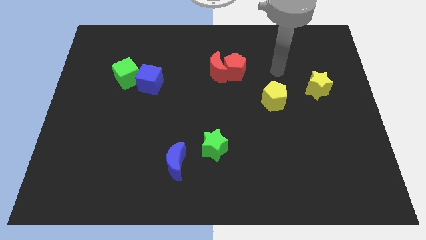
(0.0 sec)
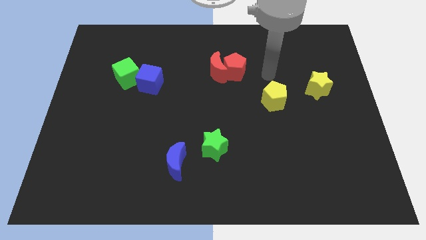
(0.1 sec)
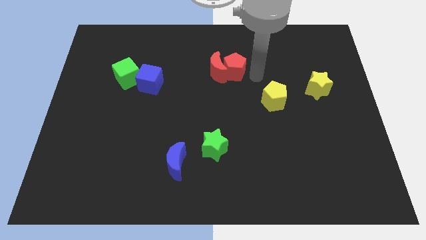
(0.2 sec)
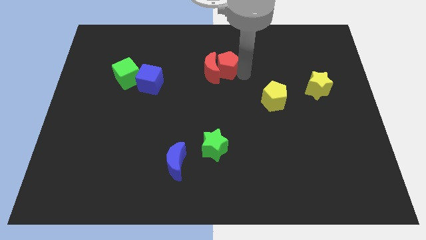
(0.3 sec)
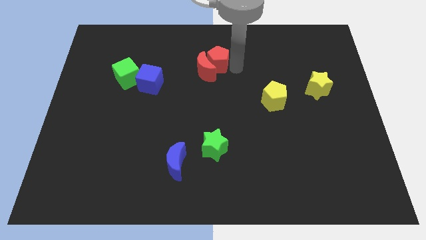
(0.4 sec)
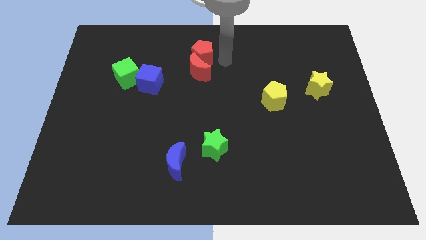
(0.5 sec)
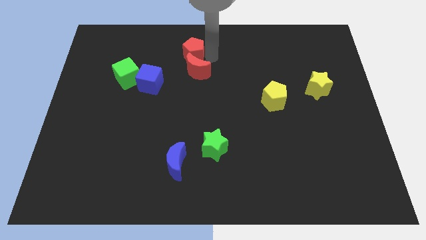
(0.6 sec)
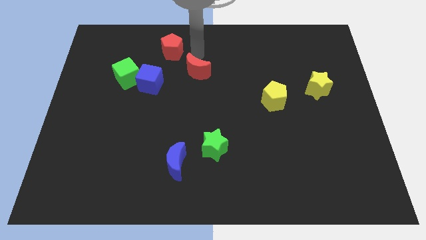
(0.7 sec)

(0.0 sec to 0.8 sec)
separate the red moon from the red pentagon

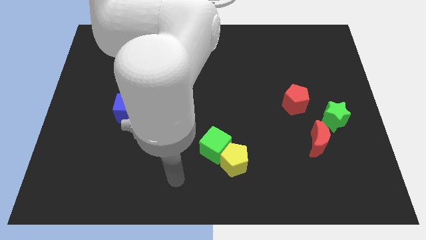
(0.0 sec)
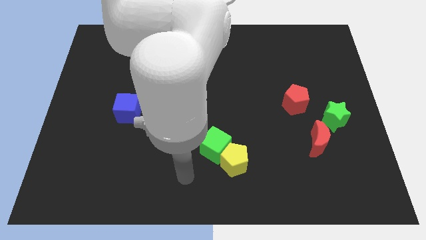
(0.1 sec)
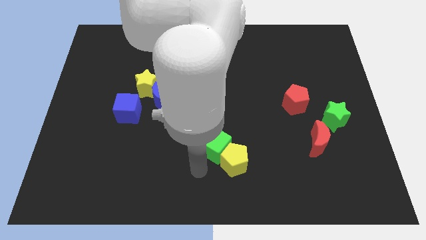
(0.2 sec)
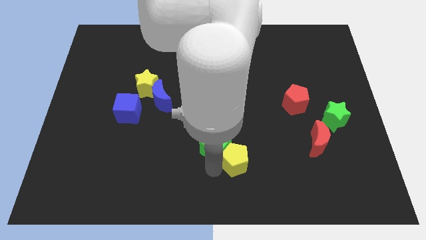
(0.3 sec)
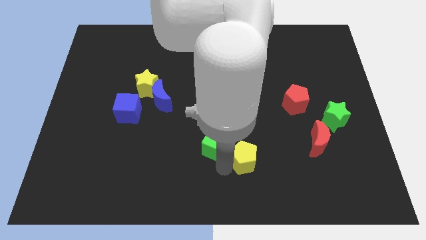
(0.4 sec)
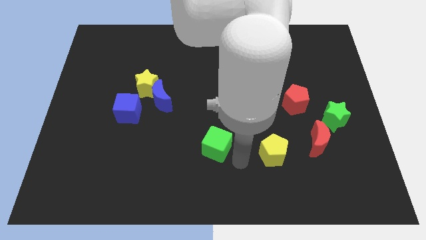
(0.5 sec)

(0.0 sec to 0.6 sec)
separate the green cube from the yellow pentagon

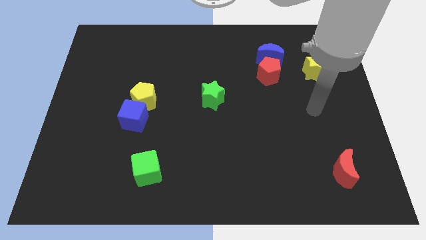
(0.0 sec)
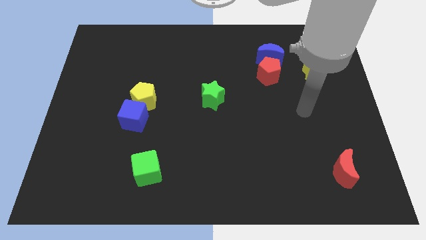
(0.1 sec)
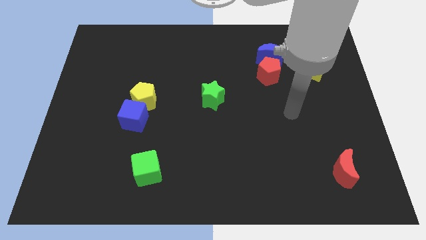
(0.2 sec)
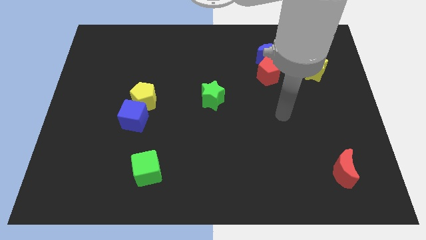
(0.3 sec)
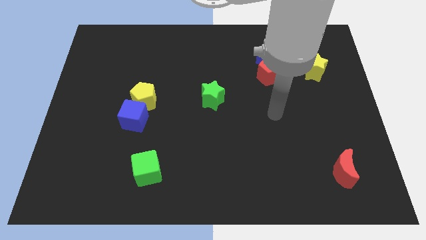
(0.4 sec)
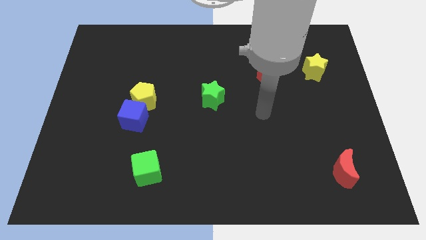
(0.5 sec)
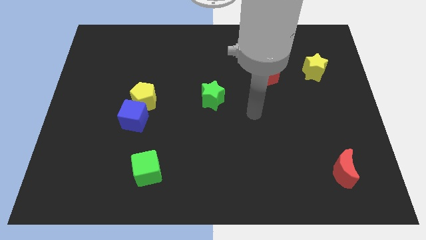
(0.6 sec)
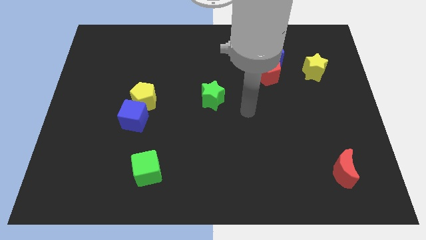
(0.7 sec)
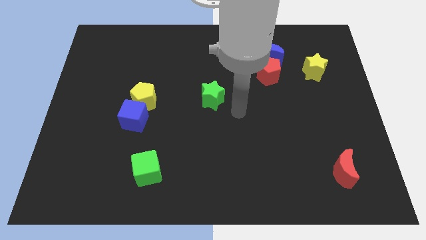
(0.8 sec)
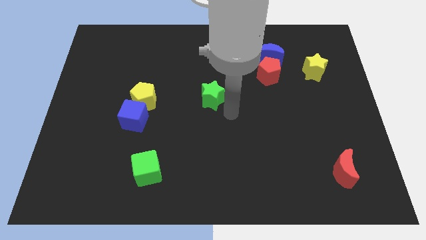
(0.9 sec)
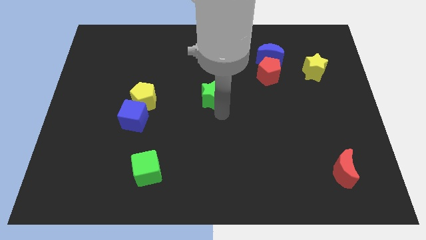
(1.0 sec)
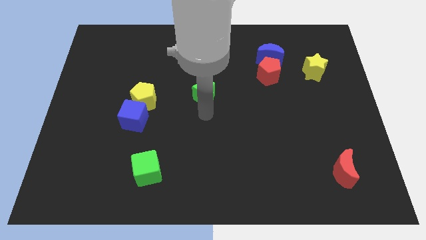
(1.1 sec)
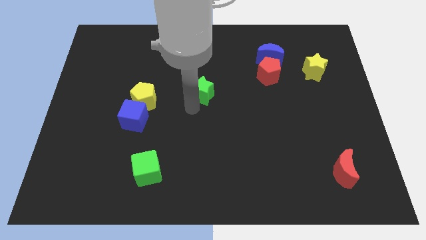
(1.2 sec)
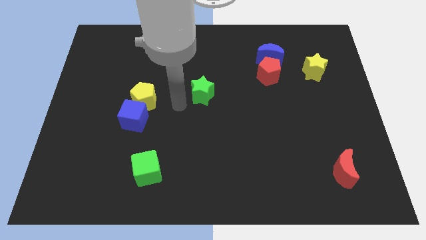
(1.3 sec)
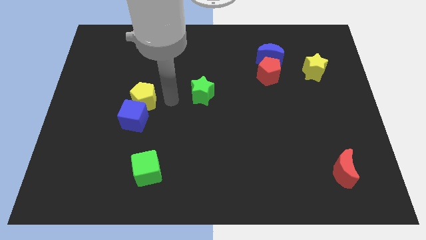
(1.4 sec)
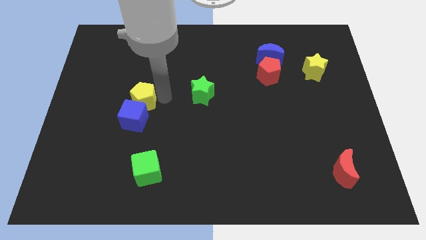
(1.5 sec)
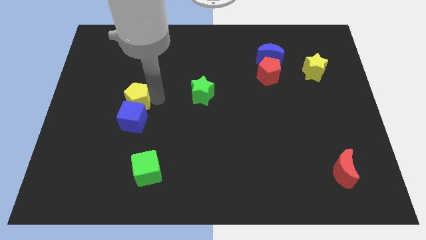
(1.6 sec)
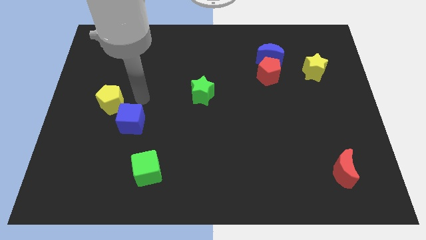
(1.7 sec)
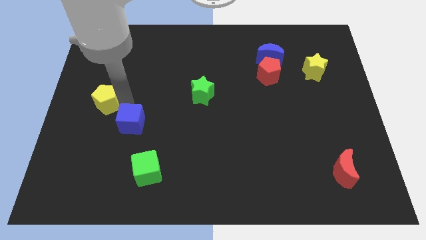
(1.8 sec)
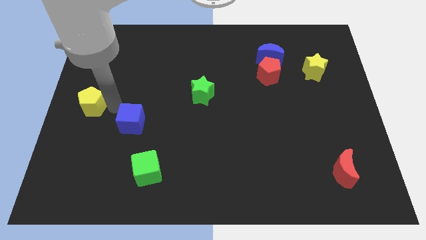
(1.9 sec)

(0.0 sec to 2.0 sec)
move the blue cube away from the yellow pentagon

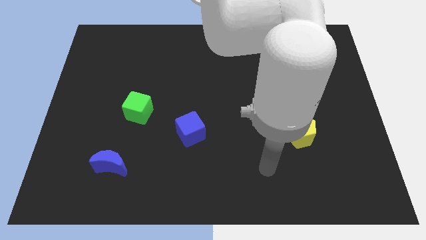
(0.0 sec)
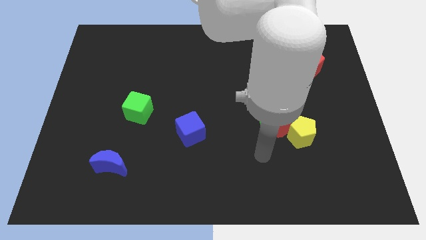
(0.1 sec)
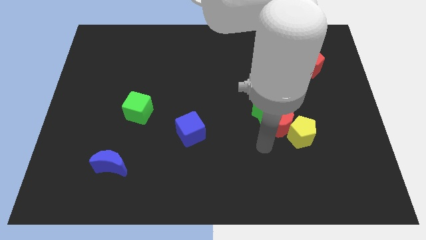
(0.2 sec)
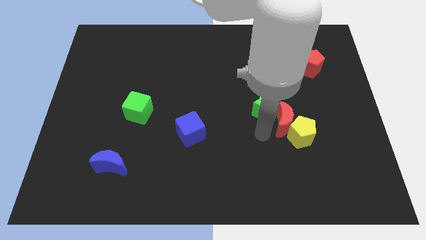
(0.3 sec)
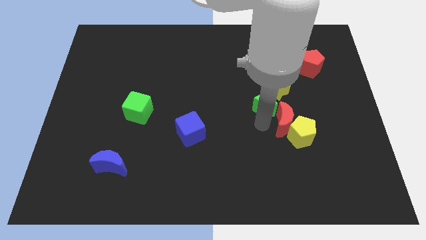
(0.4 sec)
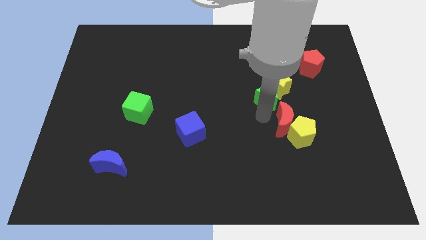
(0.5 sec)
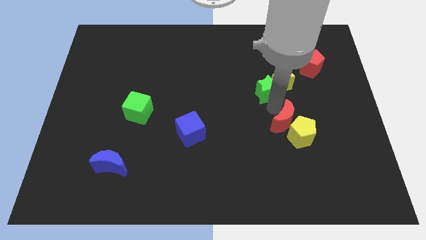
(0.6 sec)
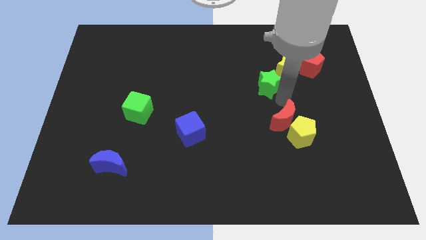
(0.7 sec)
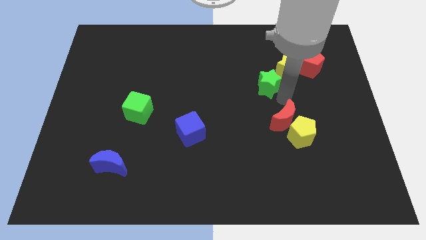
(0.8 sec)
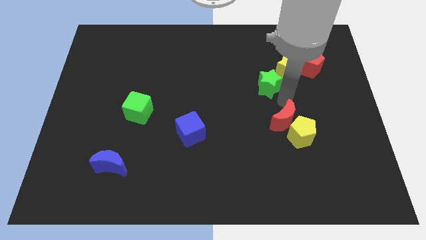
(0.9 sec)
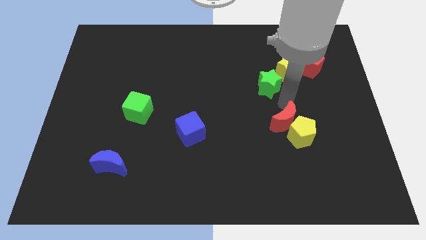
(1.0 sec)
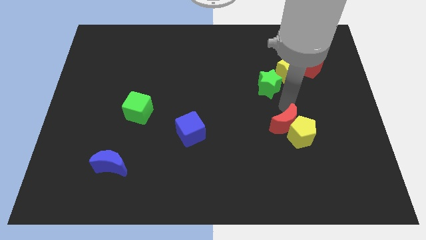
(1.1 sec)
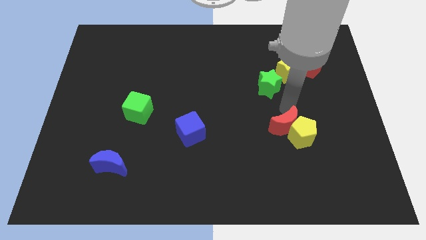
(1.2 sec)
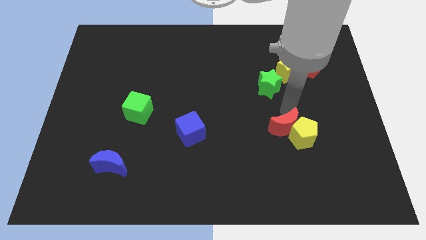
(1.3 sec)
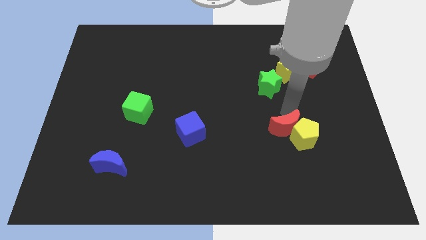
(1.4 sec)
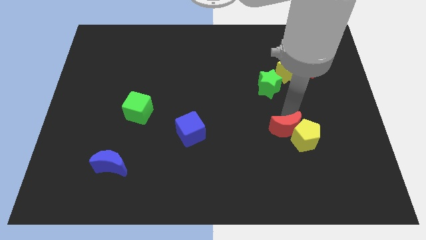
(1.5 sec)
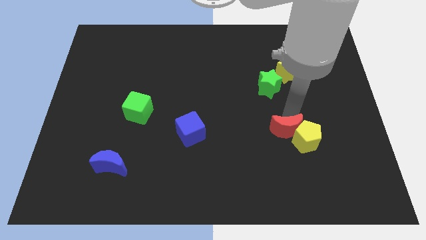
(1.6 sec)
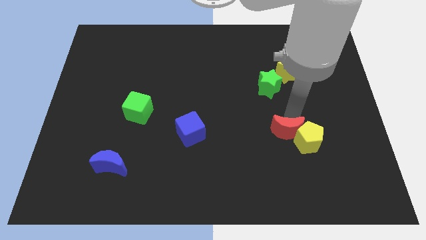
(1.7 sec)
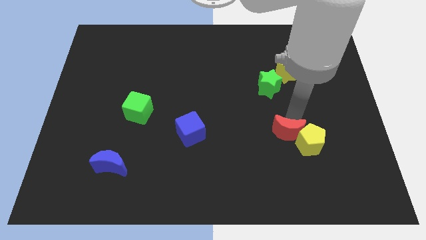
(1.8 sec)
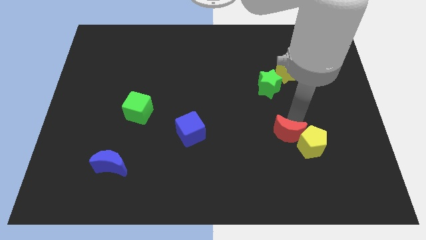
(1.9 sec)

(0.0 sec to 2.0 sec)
pull the red moon apart from the group

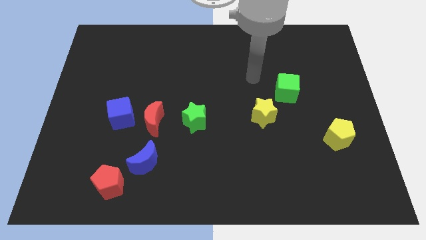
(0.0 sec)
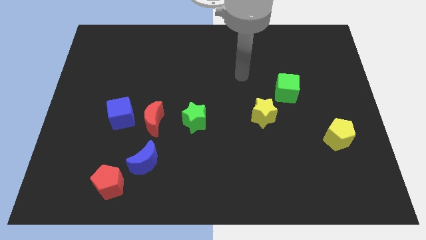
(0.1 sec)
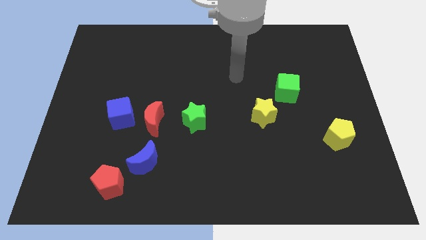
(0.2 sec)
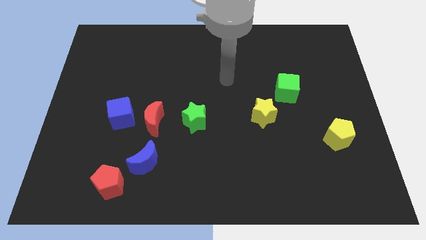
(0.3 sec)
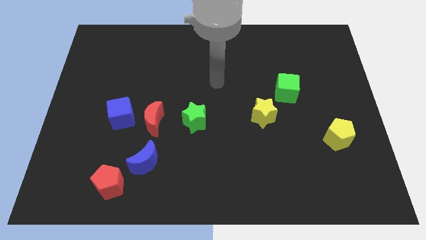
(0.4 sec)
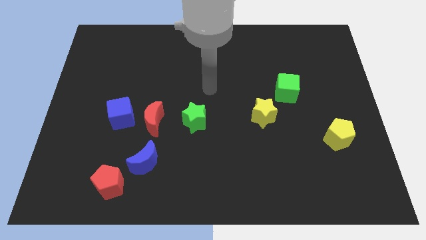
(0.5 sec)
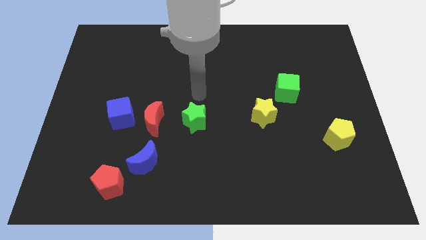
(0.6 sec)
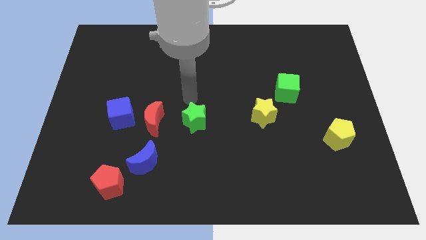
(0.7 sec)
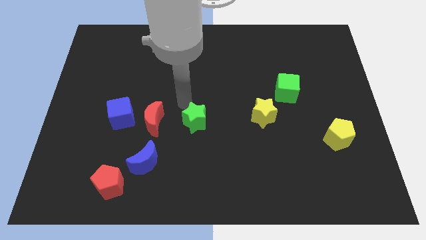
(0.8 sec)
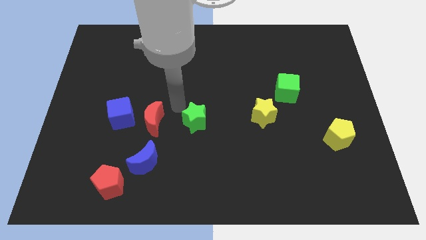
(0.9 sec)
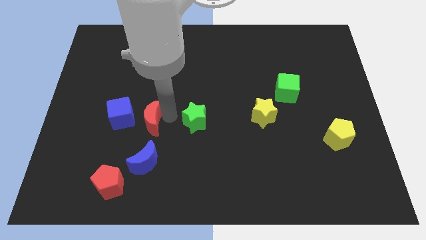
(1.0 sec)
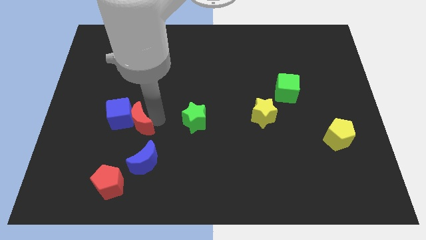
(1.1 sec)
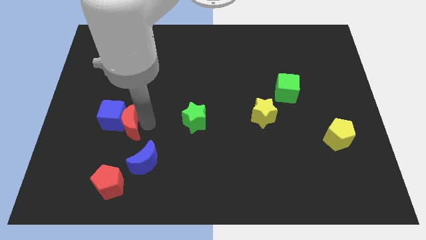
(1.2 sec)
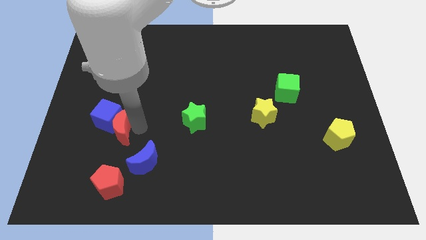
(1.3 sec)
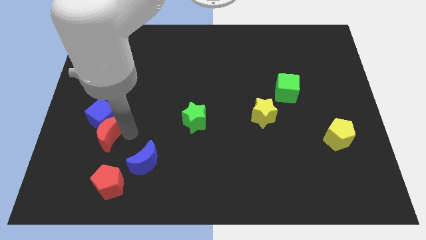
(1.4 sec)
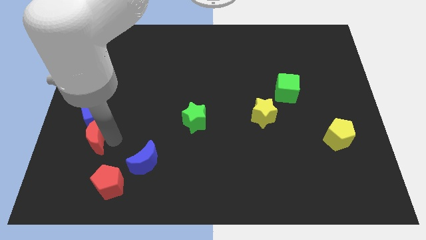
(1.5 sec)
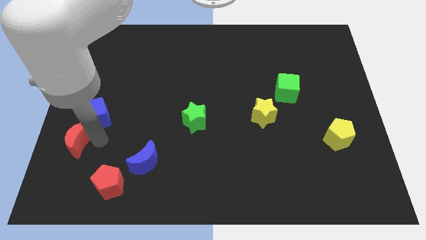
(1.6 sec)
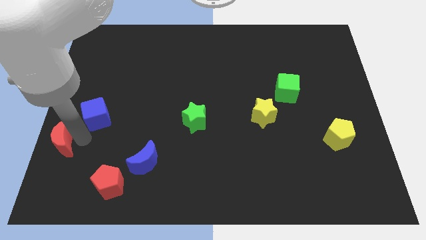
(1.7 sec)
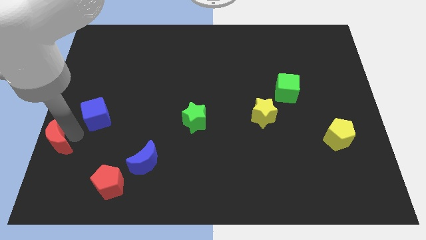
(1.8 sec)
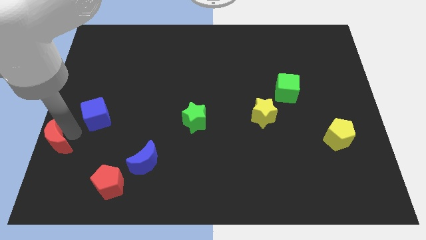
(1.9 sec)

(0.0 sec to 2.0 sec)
move the blue cube away from the red moon

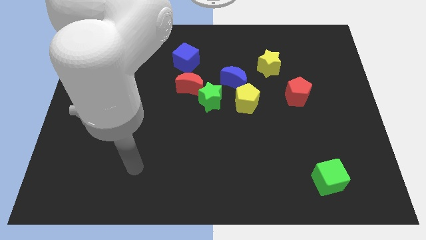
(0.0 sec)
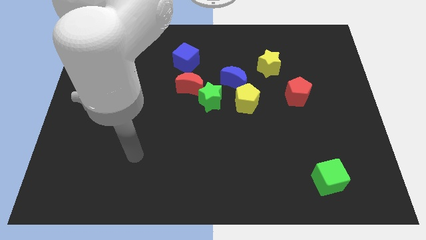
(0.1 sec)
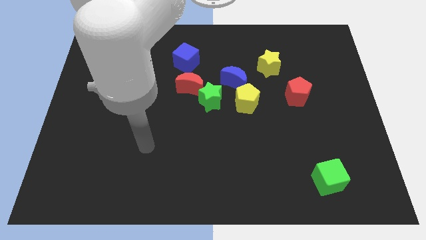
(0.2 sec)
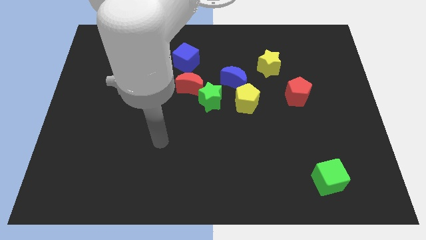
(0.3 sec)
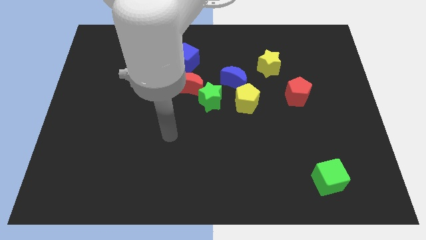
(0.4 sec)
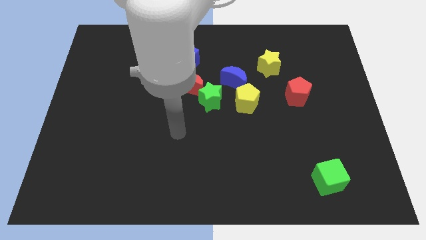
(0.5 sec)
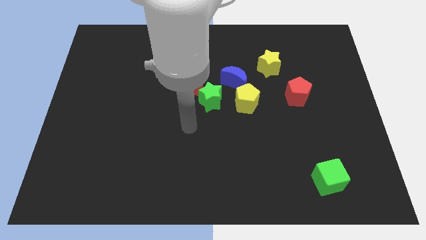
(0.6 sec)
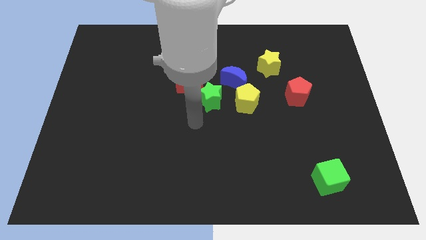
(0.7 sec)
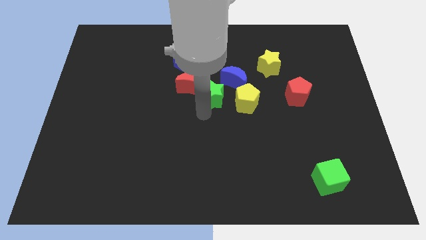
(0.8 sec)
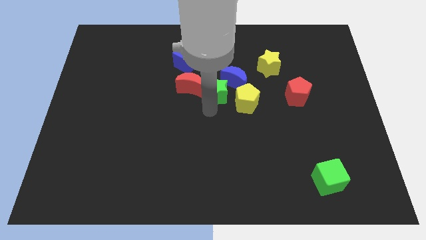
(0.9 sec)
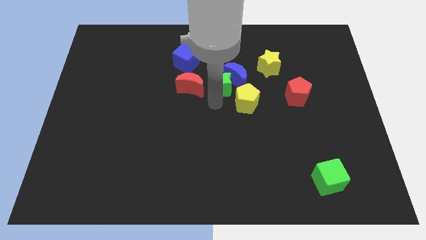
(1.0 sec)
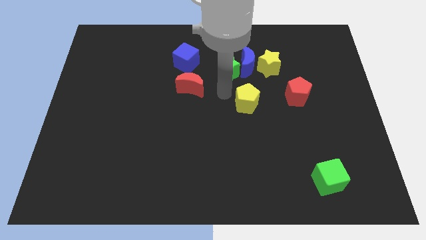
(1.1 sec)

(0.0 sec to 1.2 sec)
separate the yellow pentagon from the blue moon and green star

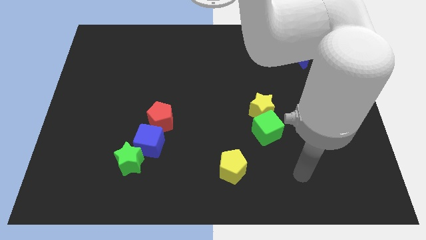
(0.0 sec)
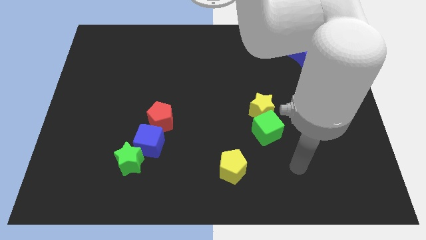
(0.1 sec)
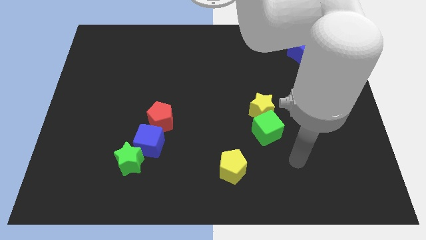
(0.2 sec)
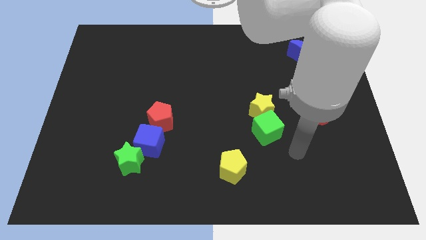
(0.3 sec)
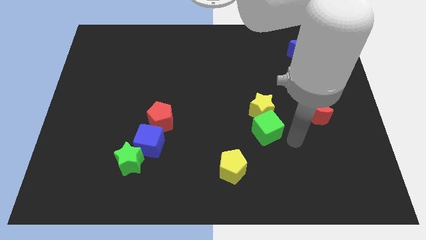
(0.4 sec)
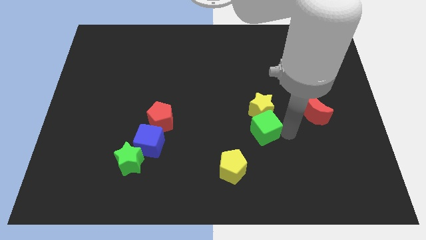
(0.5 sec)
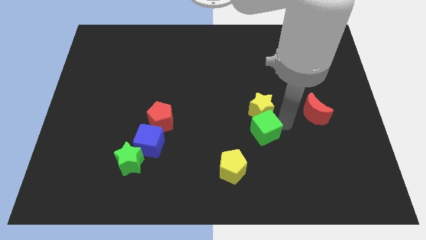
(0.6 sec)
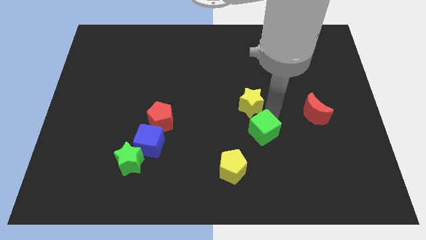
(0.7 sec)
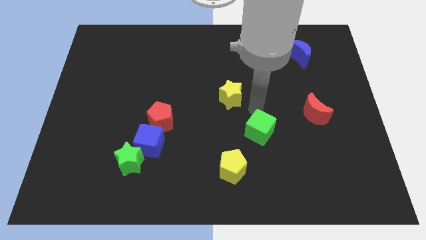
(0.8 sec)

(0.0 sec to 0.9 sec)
separate the green cube from the yellow star
